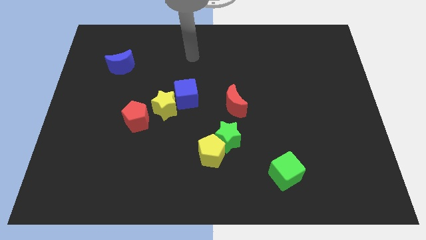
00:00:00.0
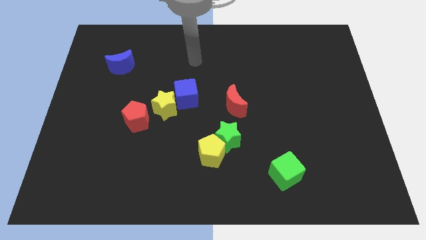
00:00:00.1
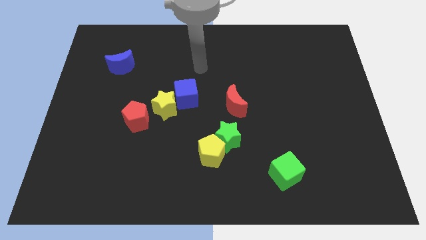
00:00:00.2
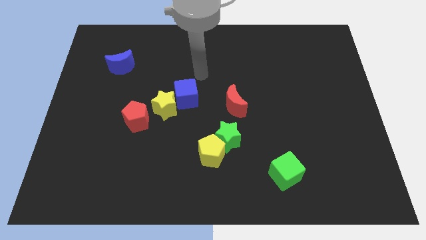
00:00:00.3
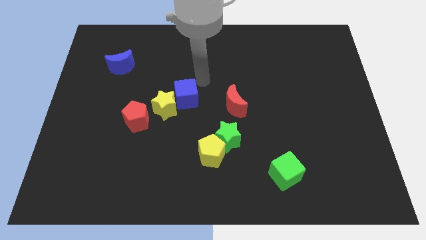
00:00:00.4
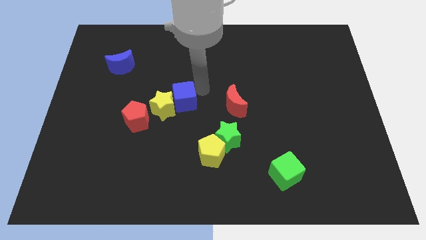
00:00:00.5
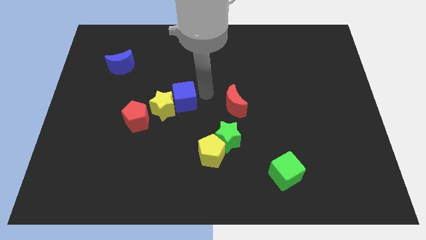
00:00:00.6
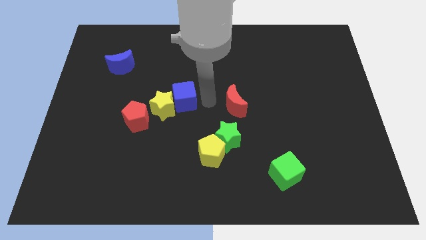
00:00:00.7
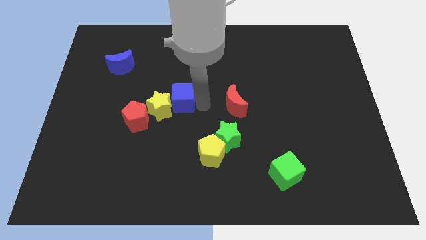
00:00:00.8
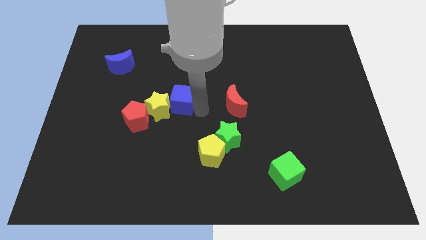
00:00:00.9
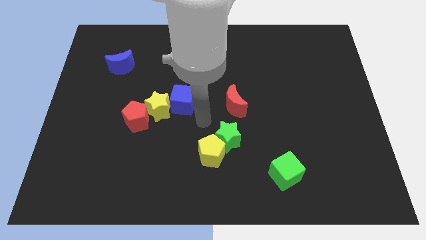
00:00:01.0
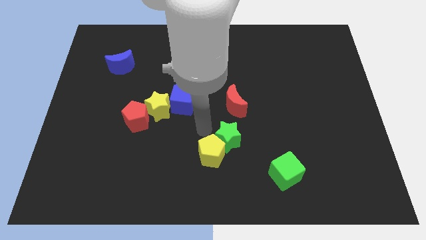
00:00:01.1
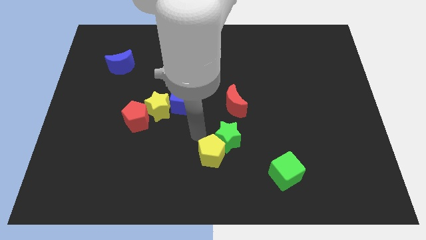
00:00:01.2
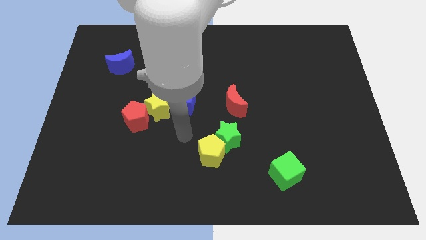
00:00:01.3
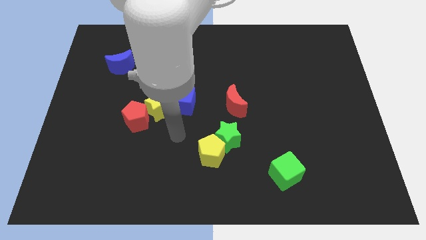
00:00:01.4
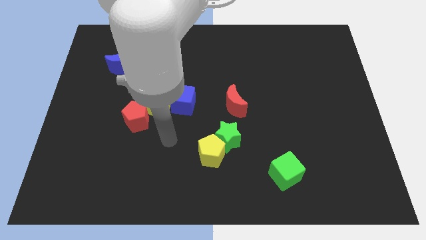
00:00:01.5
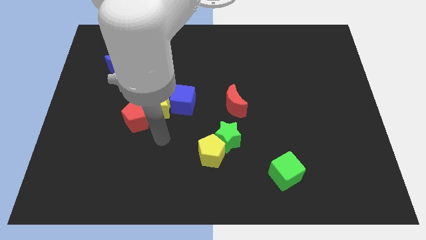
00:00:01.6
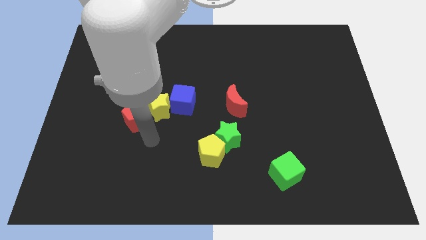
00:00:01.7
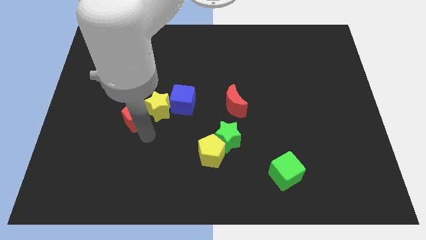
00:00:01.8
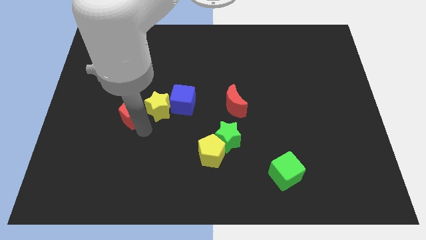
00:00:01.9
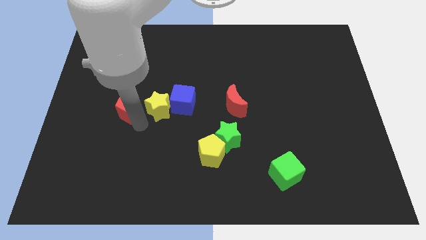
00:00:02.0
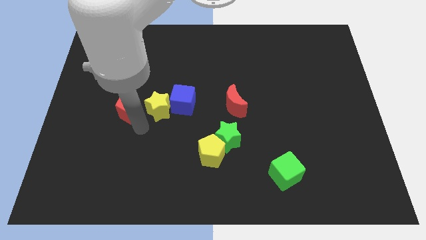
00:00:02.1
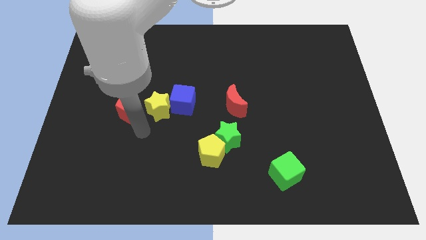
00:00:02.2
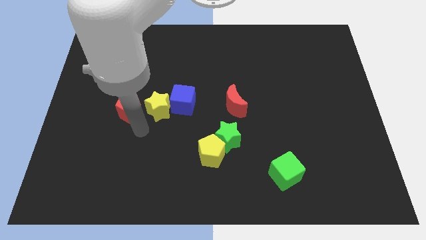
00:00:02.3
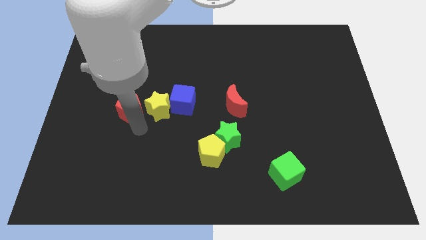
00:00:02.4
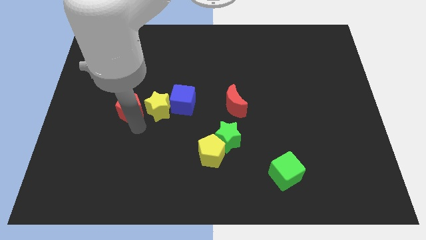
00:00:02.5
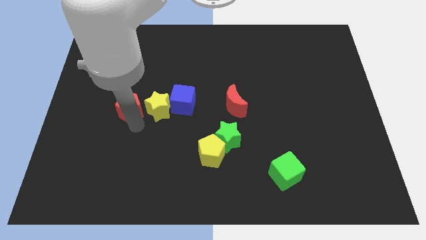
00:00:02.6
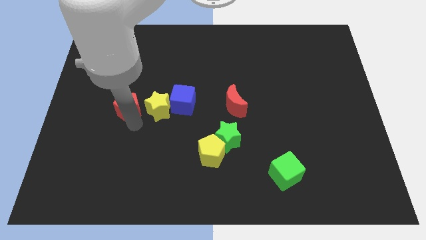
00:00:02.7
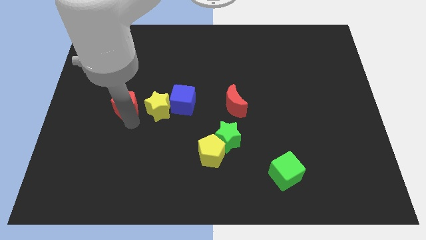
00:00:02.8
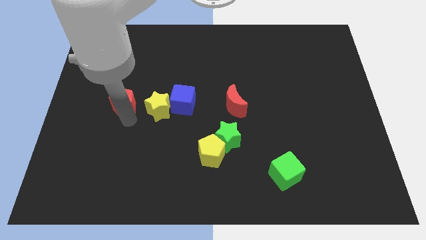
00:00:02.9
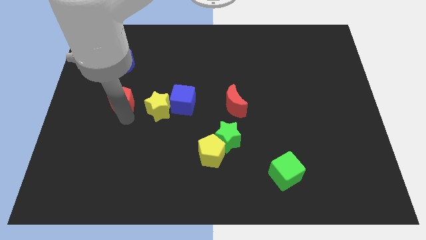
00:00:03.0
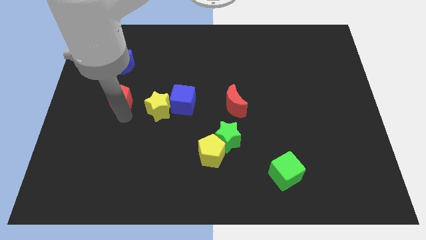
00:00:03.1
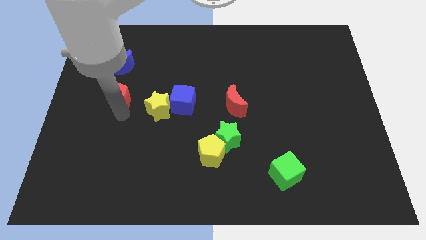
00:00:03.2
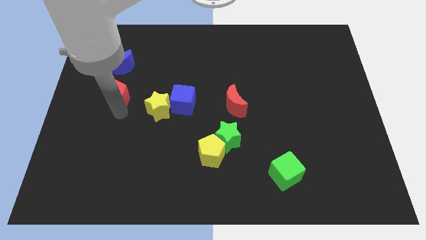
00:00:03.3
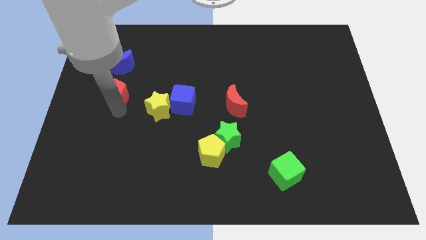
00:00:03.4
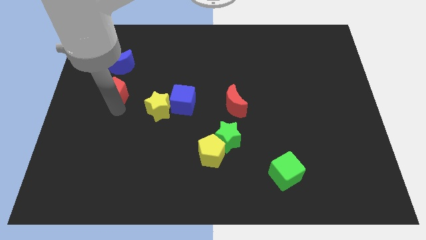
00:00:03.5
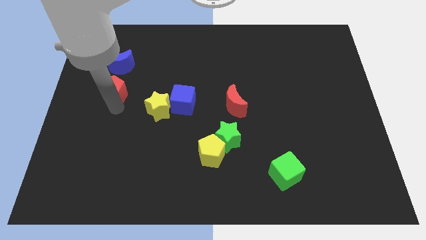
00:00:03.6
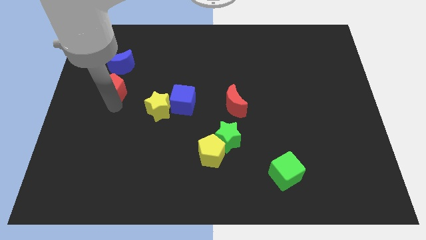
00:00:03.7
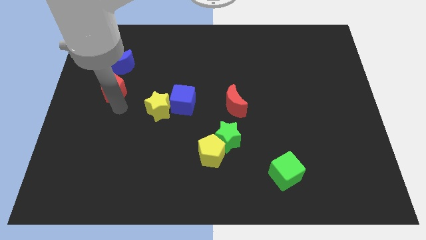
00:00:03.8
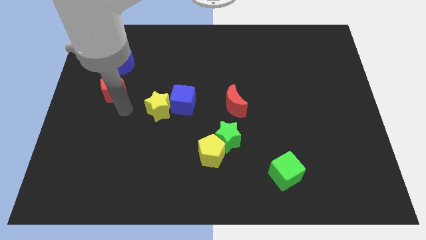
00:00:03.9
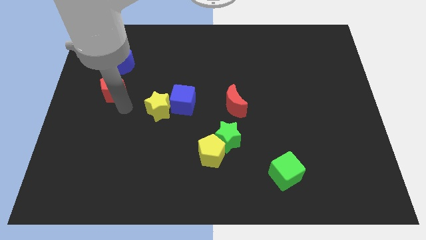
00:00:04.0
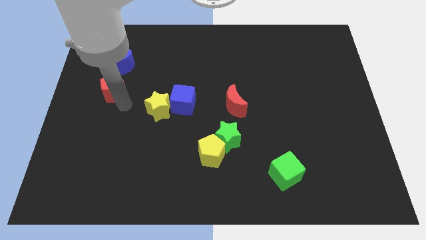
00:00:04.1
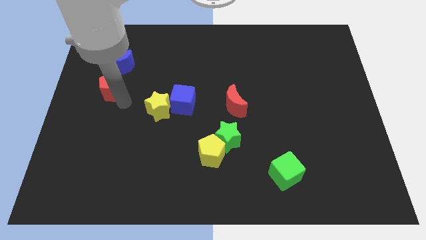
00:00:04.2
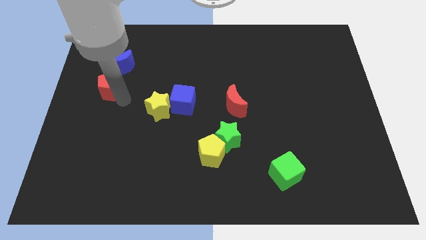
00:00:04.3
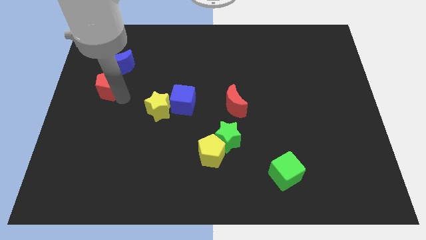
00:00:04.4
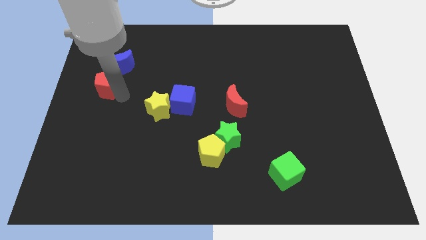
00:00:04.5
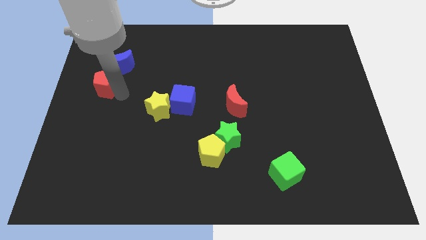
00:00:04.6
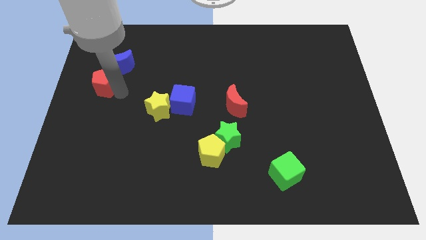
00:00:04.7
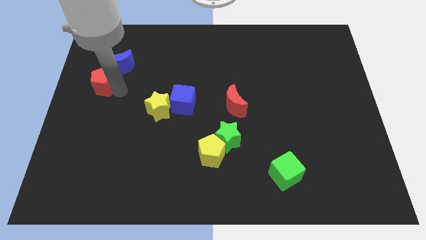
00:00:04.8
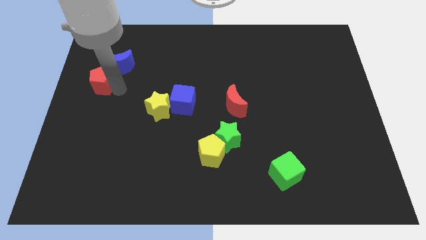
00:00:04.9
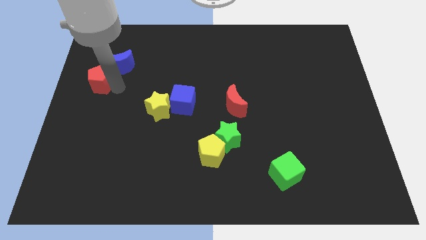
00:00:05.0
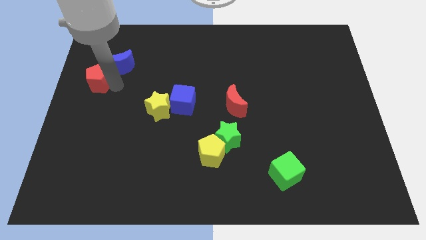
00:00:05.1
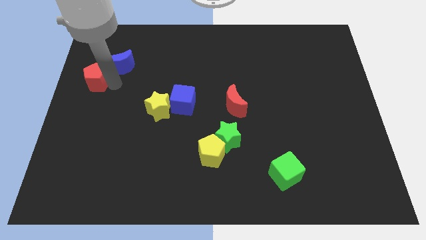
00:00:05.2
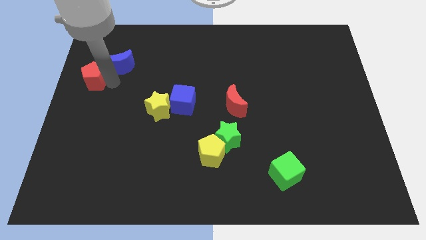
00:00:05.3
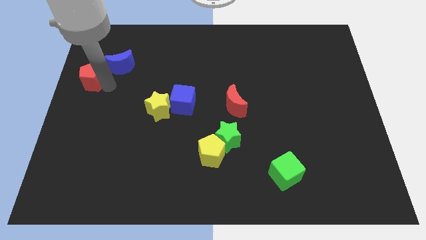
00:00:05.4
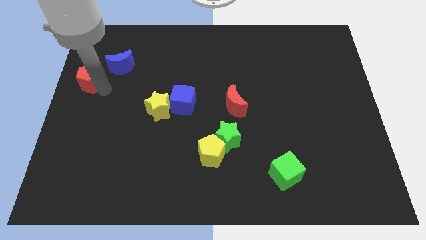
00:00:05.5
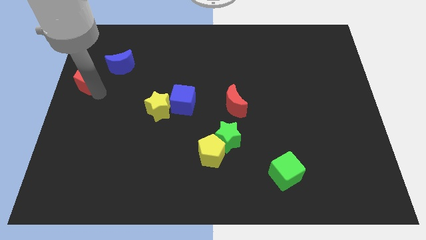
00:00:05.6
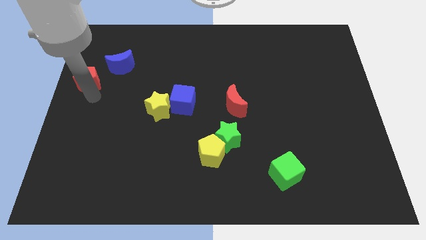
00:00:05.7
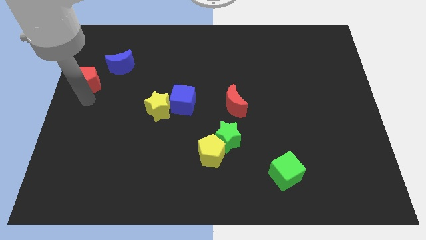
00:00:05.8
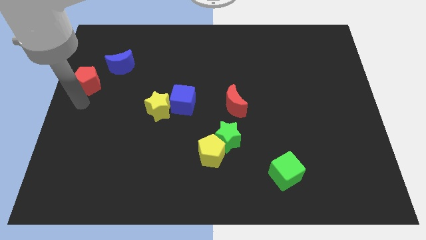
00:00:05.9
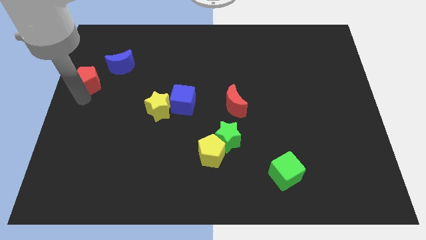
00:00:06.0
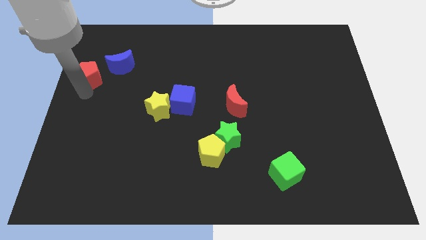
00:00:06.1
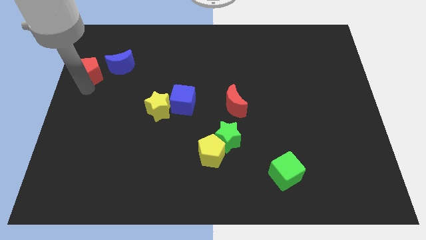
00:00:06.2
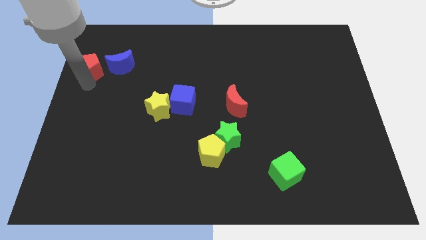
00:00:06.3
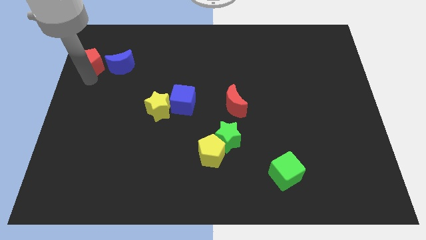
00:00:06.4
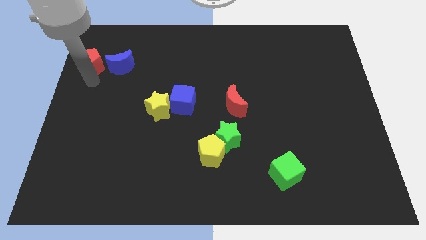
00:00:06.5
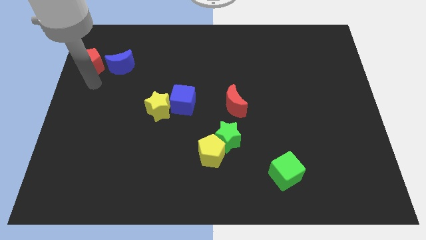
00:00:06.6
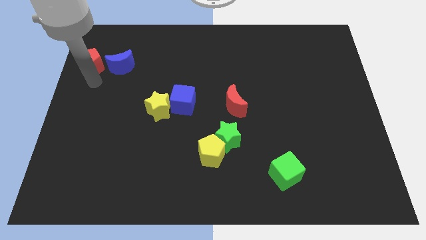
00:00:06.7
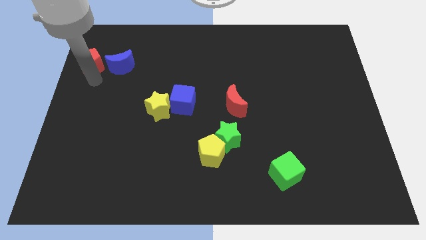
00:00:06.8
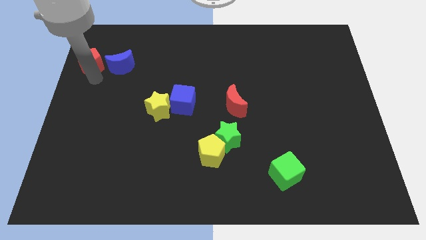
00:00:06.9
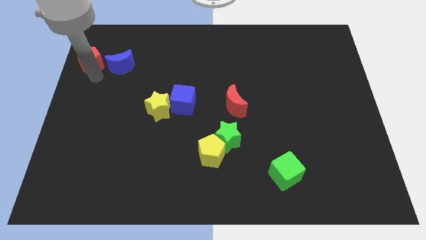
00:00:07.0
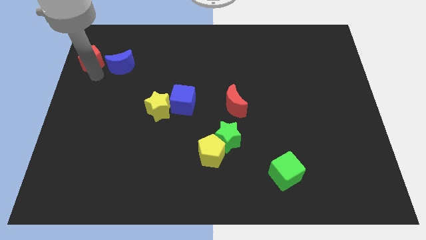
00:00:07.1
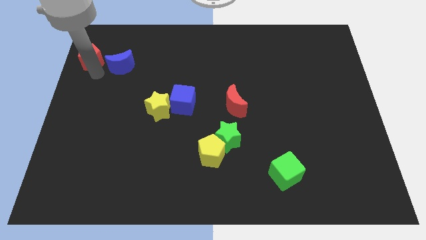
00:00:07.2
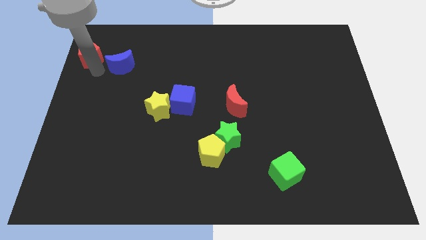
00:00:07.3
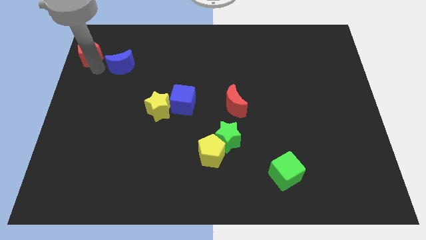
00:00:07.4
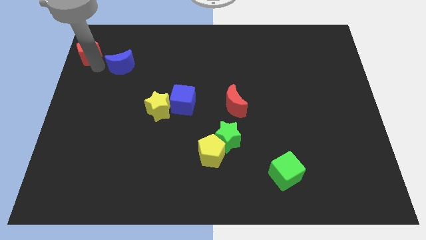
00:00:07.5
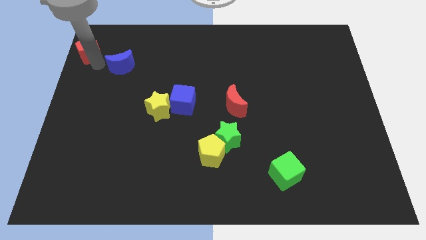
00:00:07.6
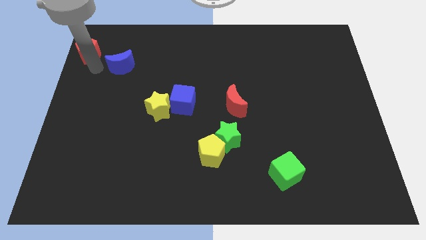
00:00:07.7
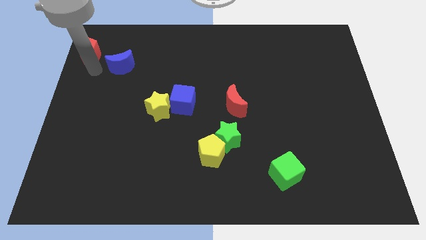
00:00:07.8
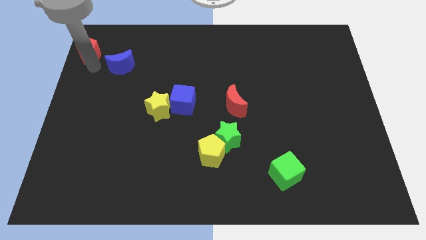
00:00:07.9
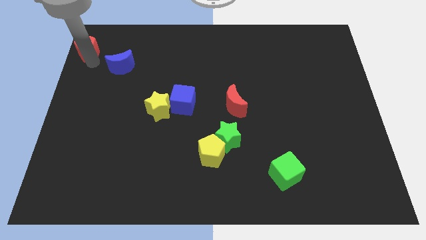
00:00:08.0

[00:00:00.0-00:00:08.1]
push the red pentagon to the upper left corner
